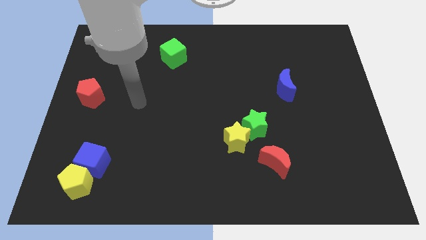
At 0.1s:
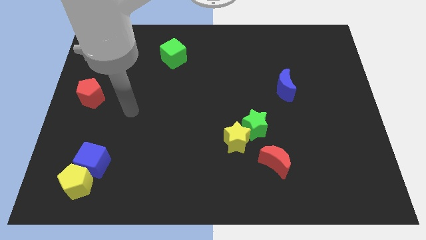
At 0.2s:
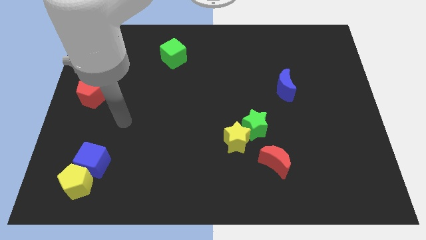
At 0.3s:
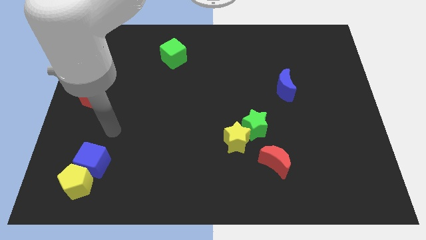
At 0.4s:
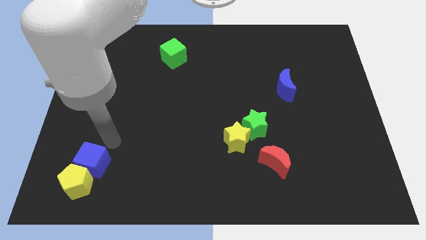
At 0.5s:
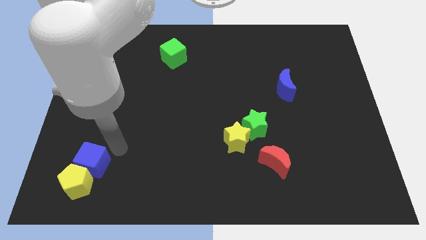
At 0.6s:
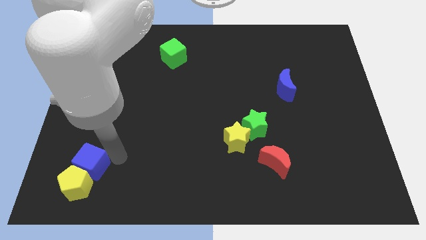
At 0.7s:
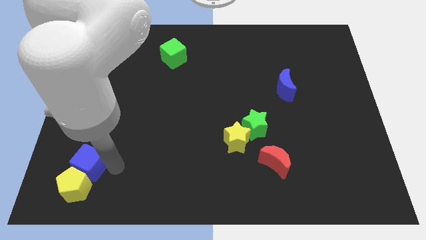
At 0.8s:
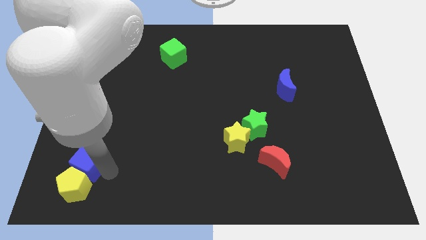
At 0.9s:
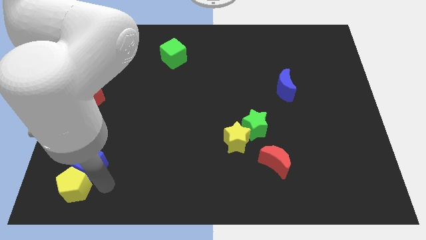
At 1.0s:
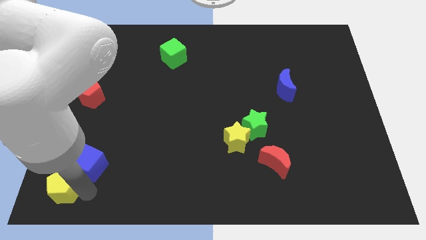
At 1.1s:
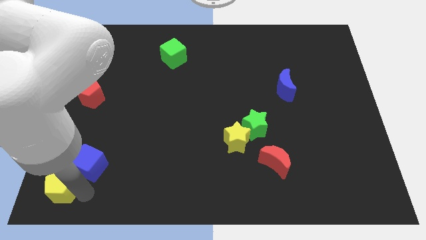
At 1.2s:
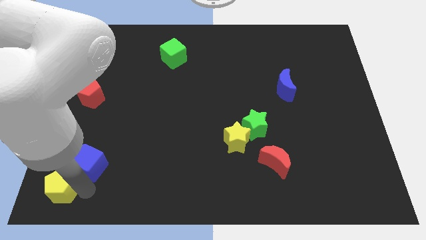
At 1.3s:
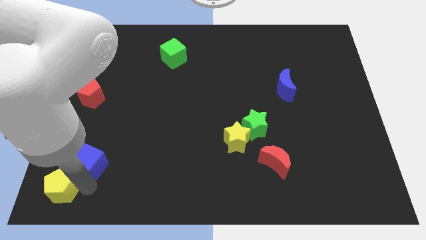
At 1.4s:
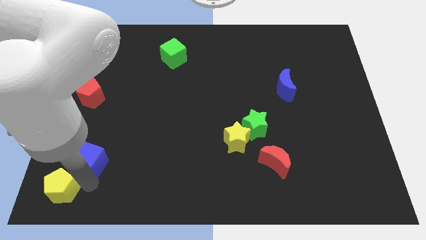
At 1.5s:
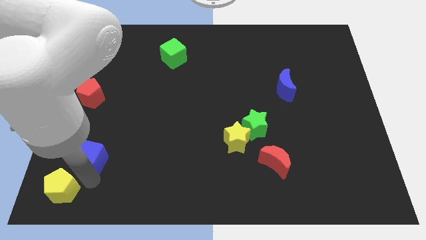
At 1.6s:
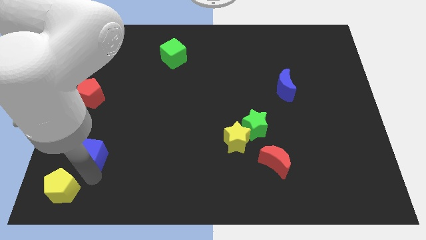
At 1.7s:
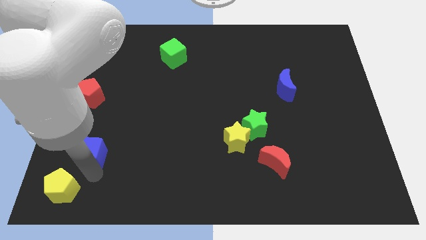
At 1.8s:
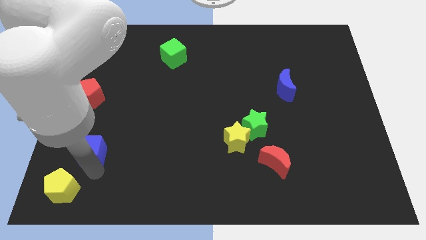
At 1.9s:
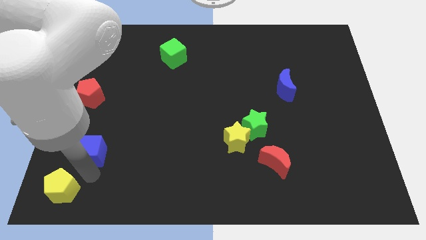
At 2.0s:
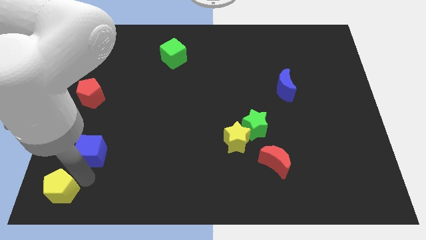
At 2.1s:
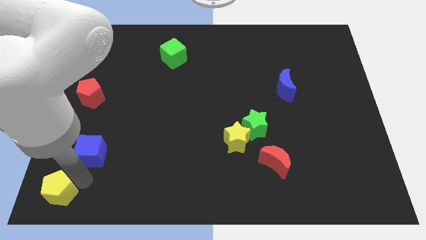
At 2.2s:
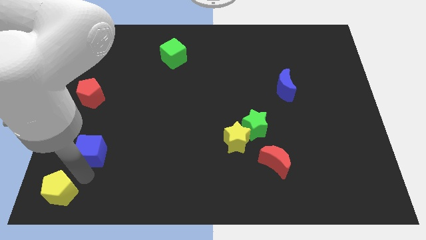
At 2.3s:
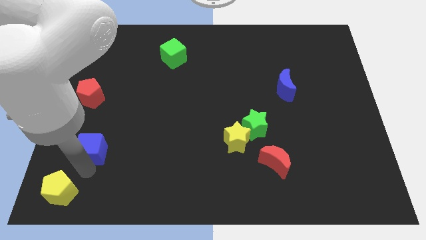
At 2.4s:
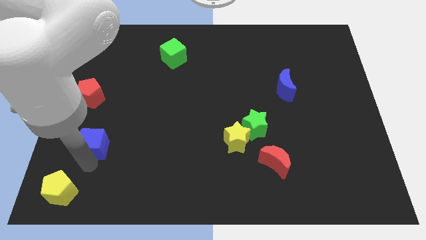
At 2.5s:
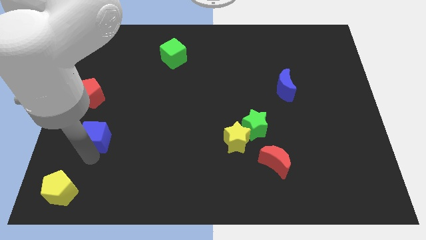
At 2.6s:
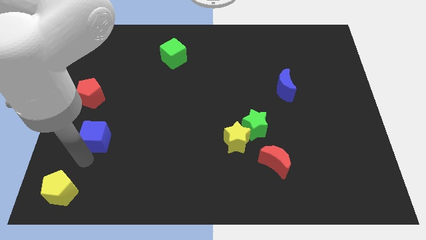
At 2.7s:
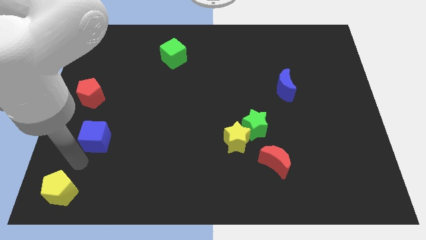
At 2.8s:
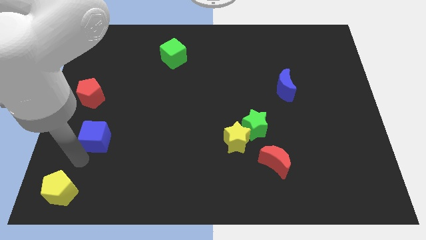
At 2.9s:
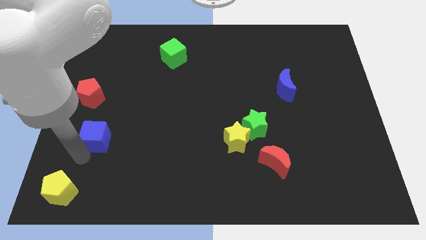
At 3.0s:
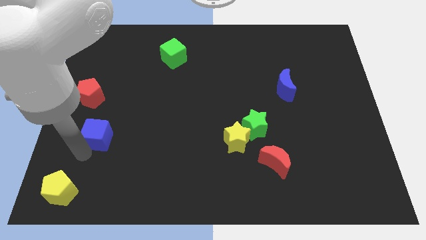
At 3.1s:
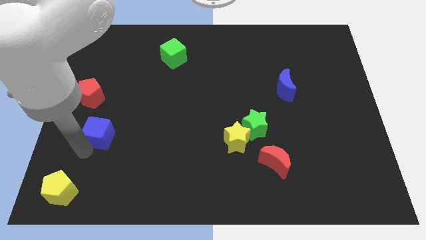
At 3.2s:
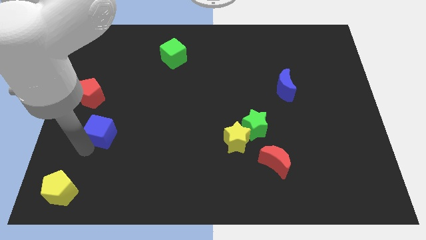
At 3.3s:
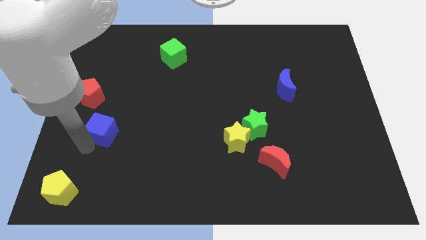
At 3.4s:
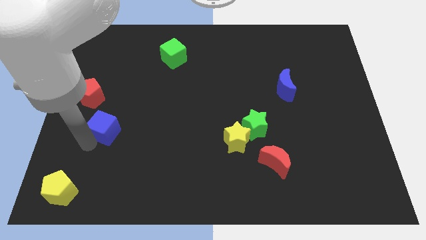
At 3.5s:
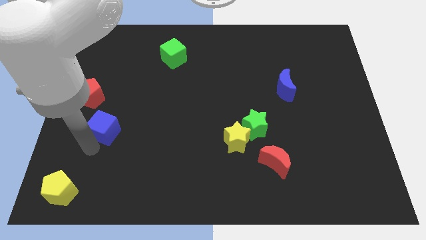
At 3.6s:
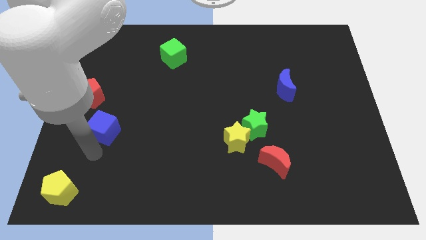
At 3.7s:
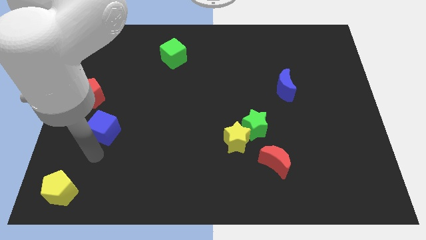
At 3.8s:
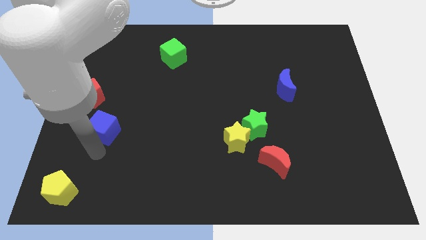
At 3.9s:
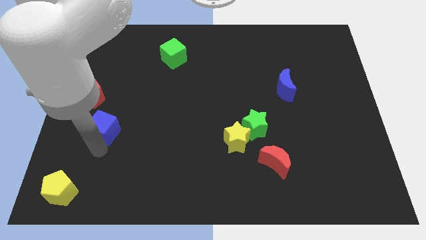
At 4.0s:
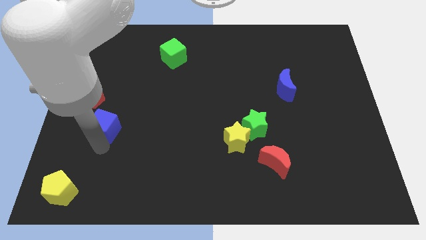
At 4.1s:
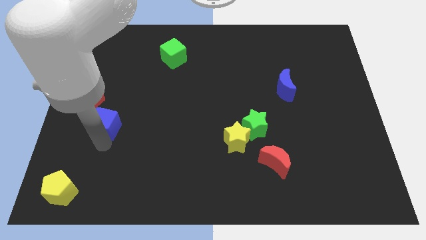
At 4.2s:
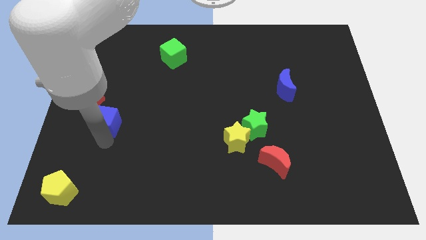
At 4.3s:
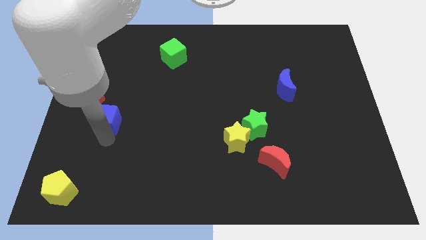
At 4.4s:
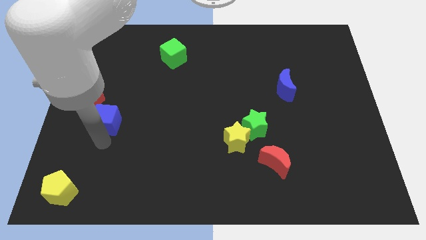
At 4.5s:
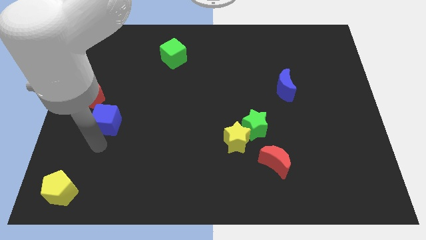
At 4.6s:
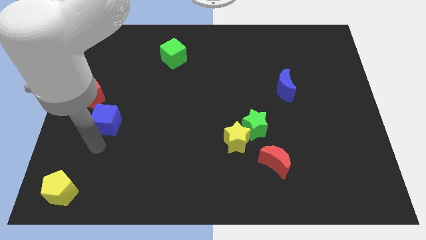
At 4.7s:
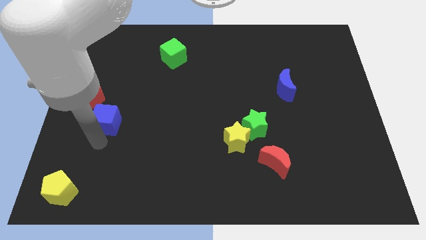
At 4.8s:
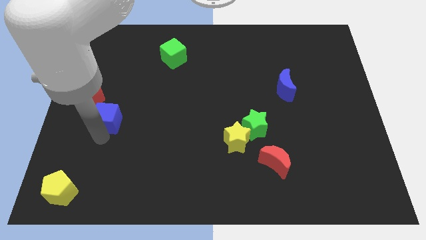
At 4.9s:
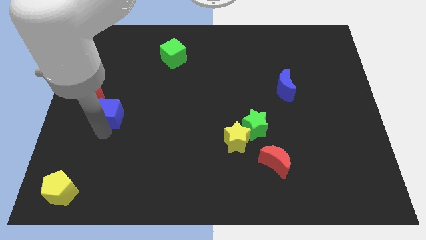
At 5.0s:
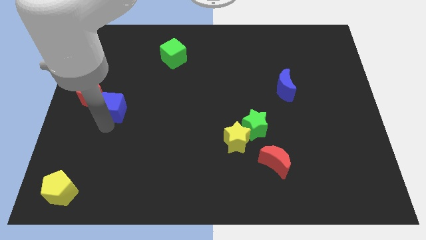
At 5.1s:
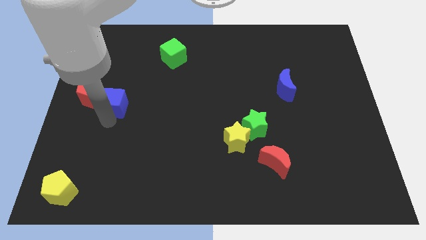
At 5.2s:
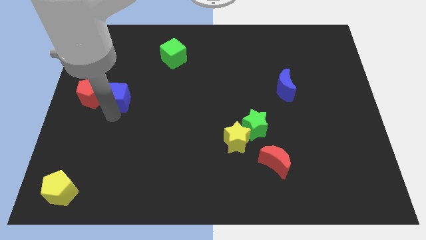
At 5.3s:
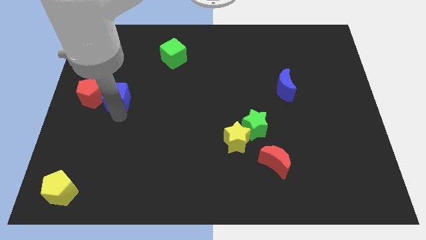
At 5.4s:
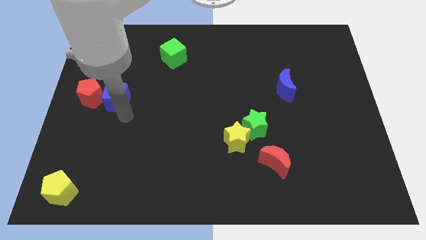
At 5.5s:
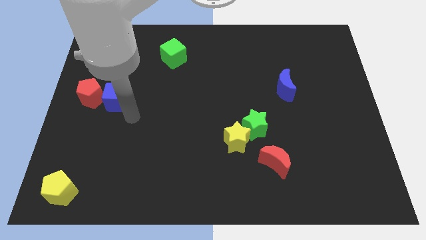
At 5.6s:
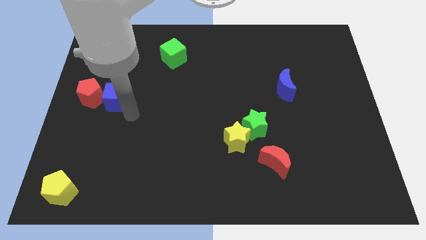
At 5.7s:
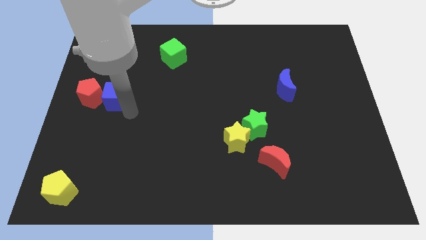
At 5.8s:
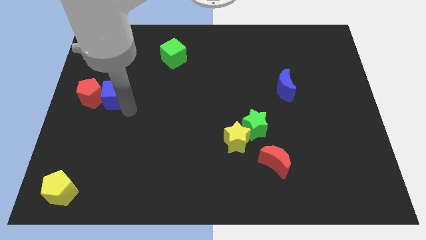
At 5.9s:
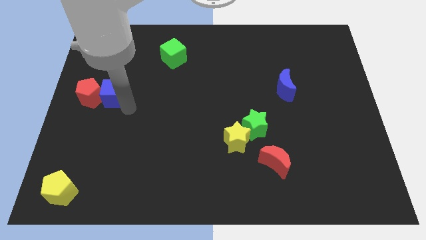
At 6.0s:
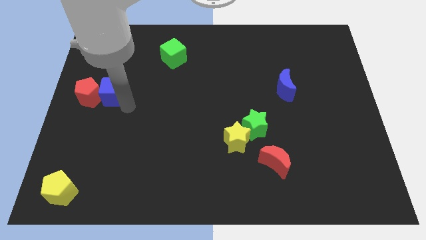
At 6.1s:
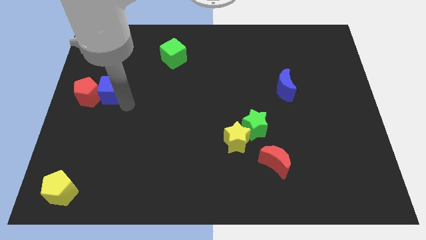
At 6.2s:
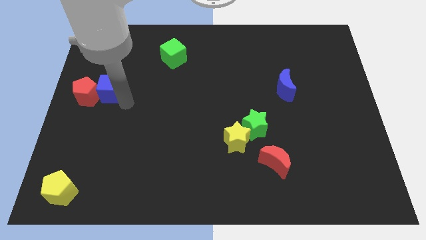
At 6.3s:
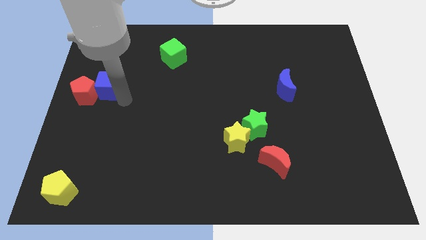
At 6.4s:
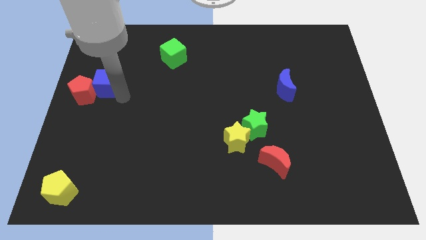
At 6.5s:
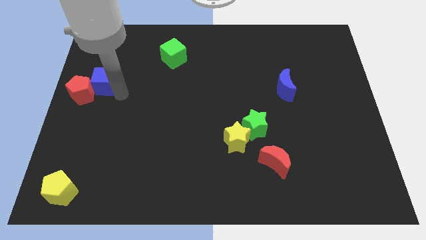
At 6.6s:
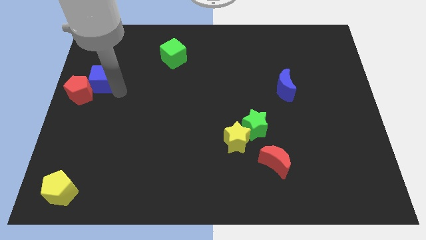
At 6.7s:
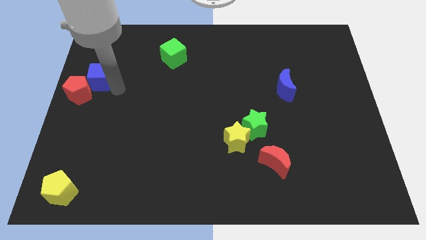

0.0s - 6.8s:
push the blue cube to the top of the red pentagon

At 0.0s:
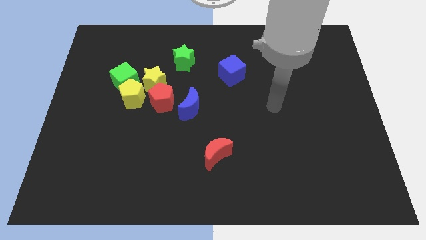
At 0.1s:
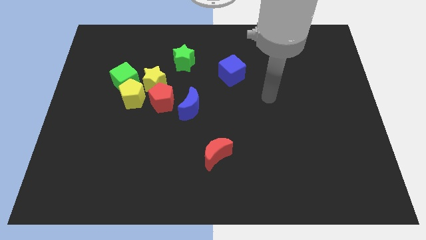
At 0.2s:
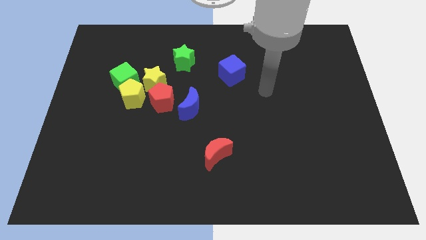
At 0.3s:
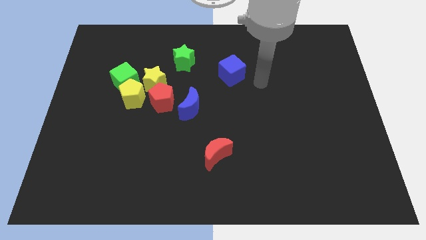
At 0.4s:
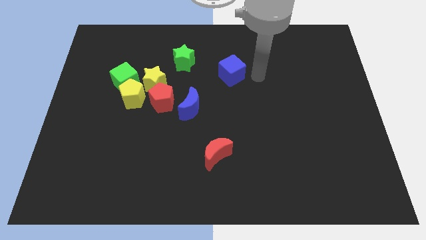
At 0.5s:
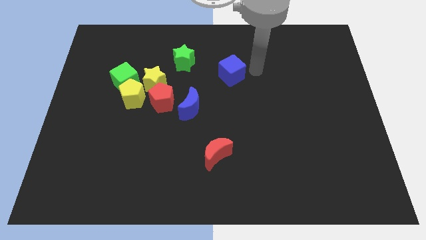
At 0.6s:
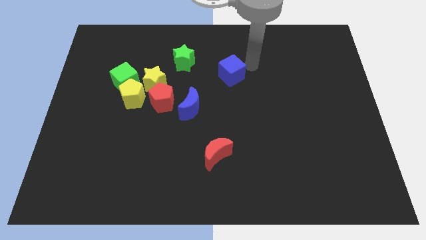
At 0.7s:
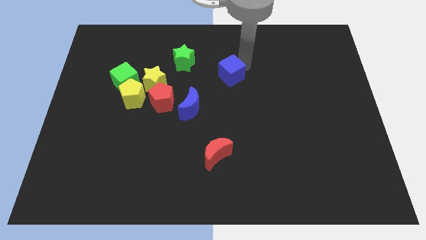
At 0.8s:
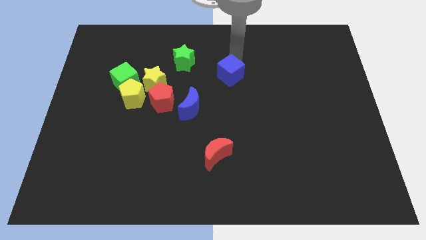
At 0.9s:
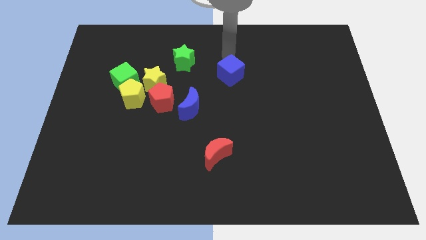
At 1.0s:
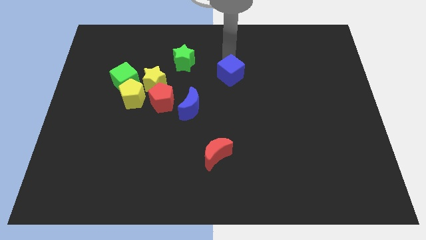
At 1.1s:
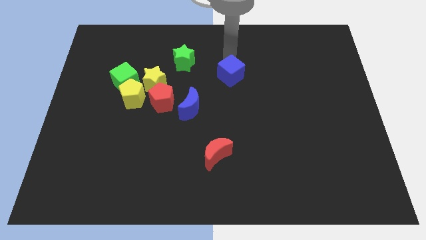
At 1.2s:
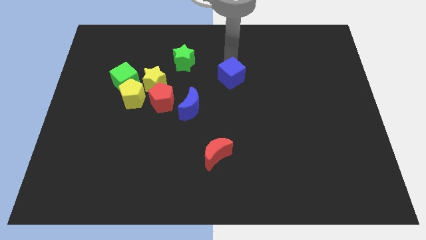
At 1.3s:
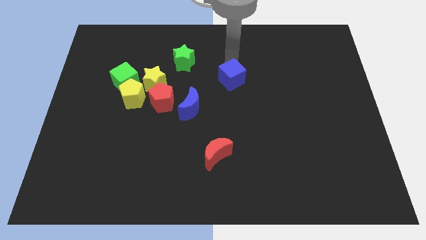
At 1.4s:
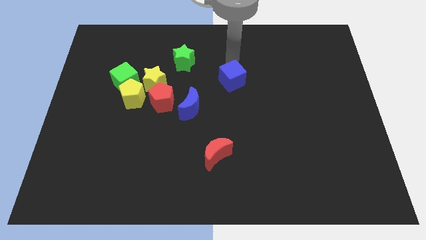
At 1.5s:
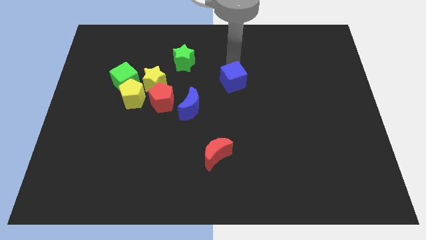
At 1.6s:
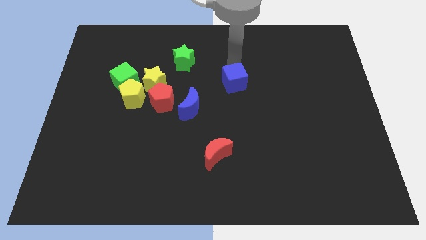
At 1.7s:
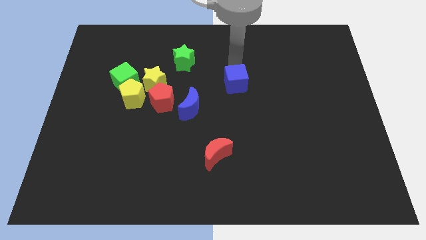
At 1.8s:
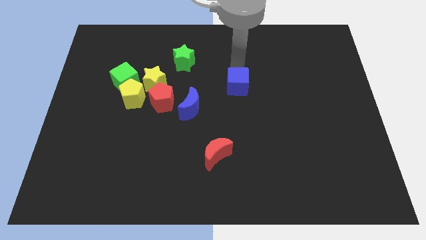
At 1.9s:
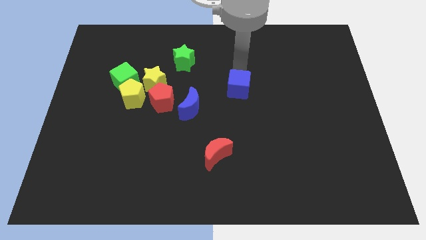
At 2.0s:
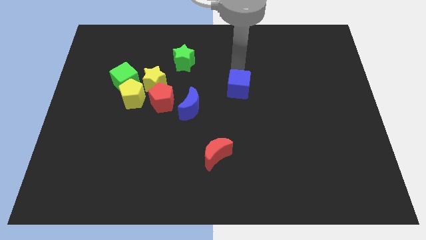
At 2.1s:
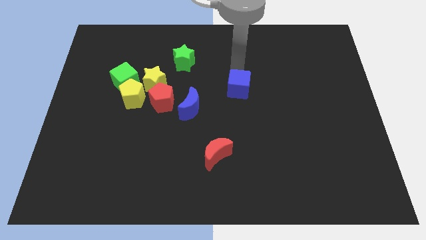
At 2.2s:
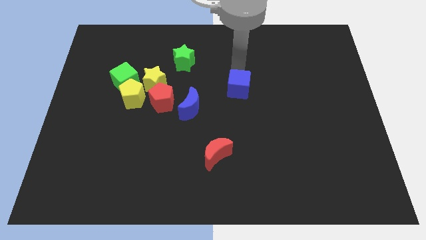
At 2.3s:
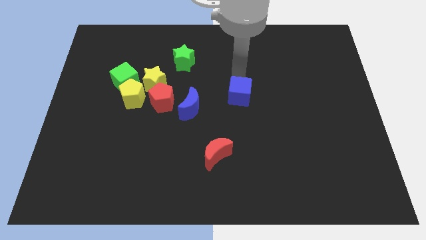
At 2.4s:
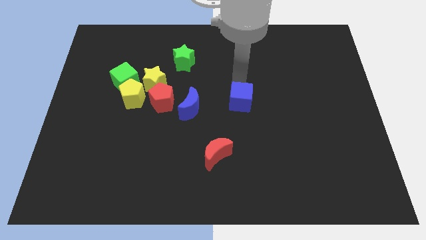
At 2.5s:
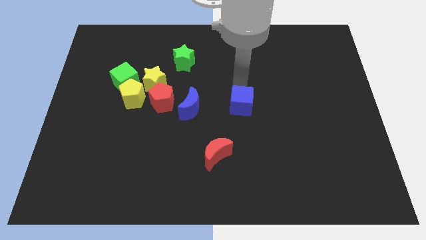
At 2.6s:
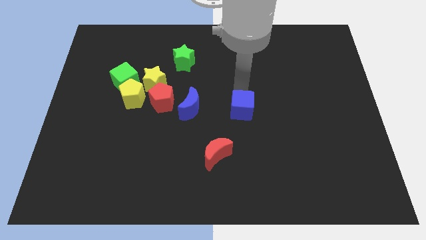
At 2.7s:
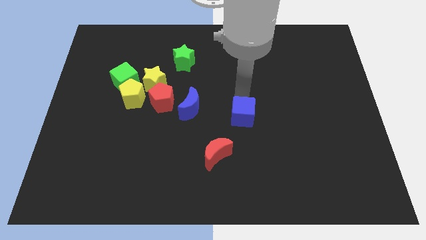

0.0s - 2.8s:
slide the blue cube to the top right side of the red moon
